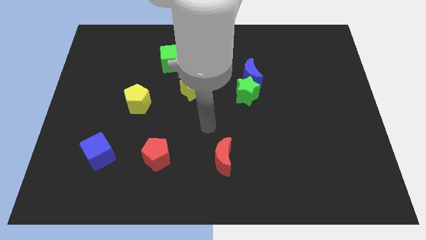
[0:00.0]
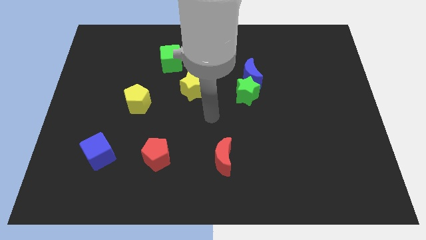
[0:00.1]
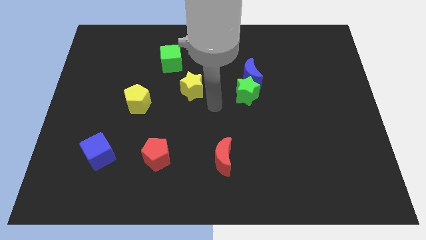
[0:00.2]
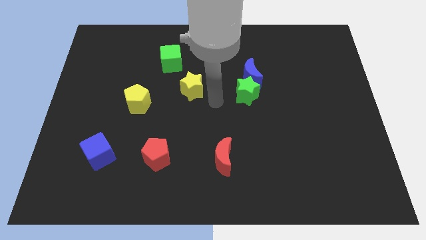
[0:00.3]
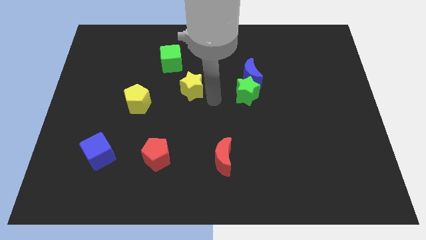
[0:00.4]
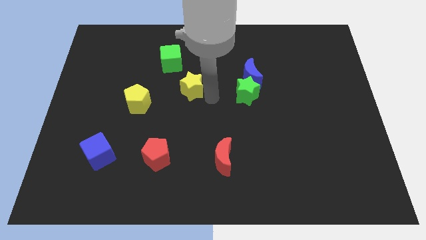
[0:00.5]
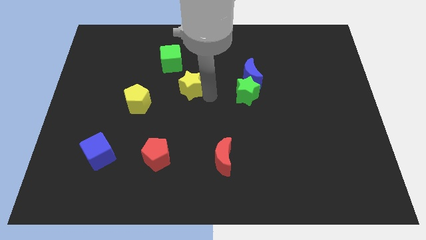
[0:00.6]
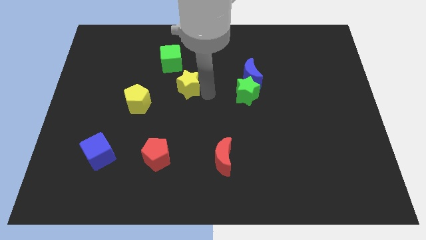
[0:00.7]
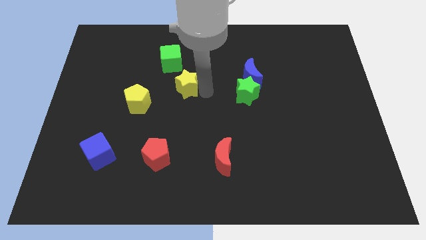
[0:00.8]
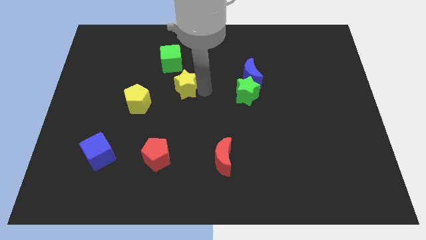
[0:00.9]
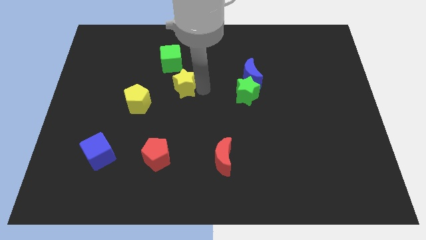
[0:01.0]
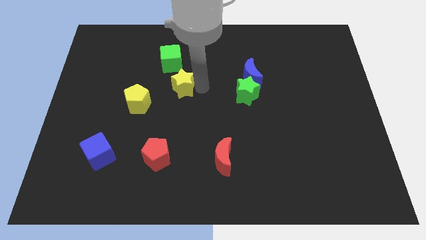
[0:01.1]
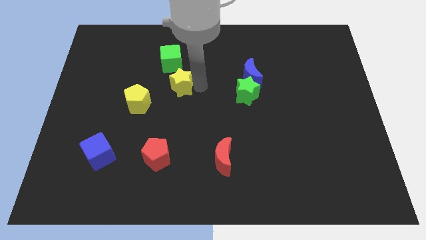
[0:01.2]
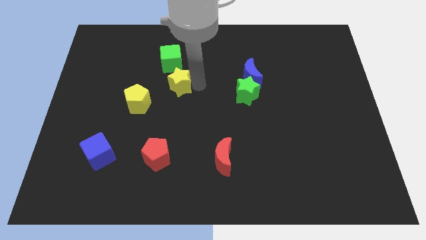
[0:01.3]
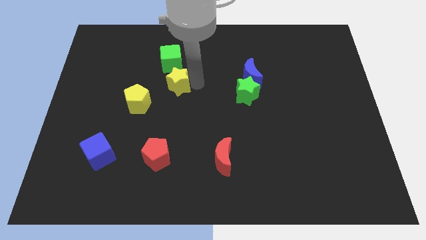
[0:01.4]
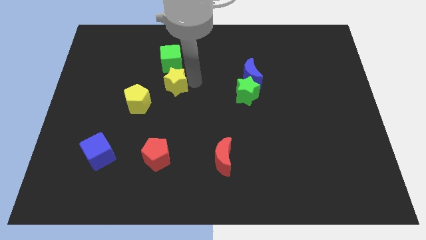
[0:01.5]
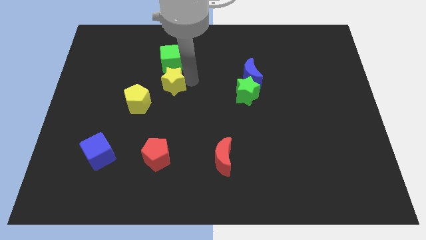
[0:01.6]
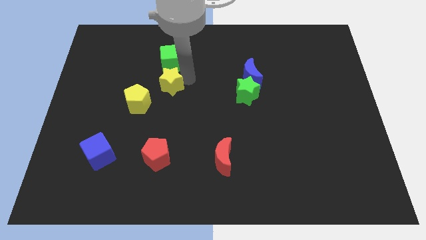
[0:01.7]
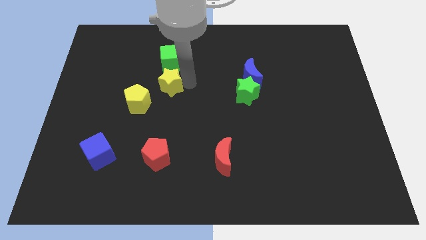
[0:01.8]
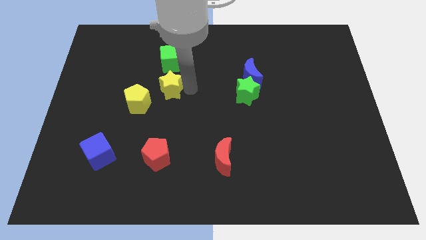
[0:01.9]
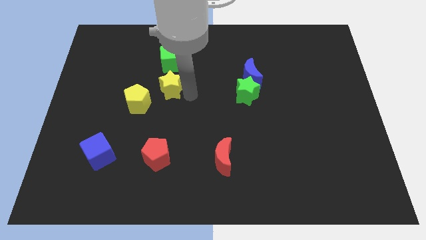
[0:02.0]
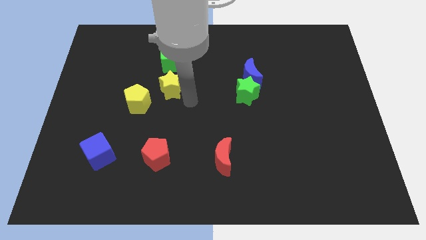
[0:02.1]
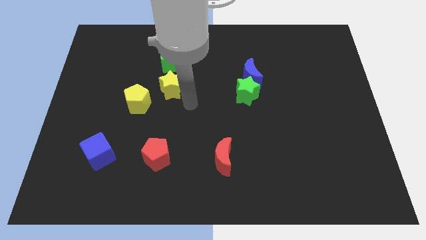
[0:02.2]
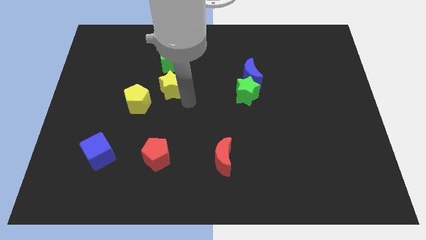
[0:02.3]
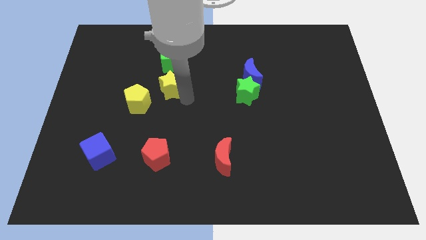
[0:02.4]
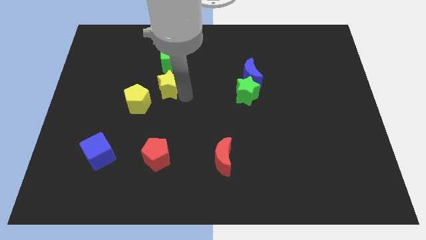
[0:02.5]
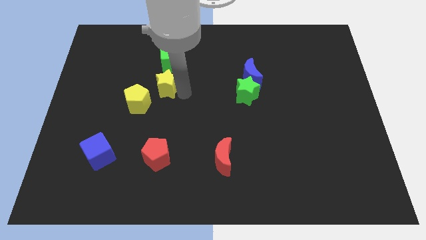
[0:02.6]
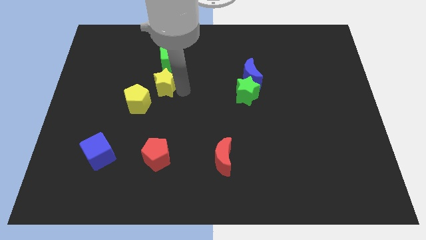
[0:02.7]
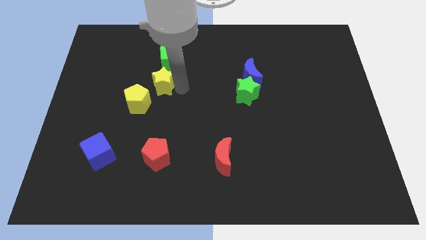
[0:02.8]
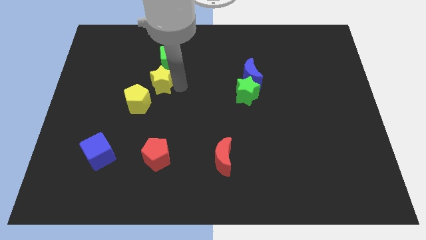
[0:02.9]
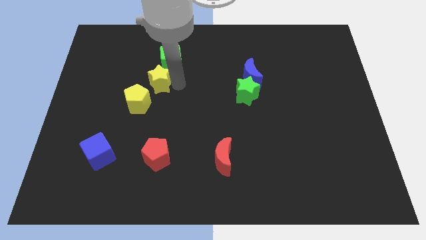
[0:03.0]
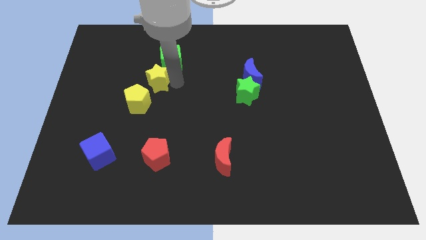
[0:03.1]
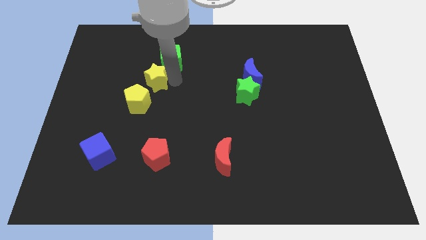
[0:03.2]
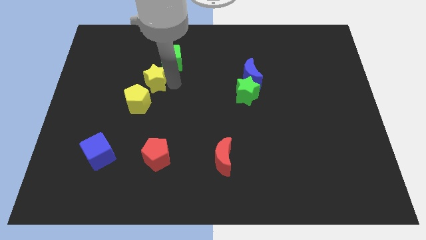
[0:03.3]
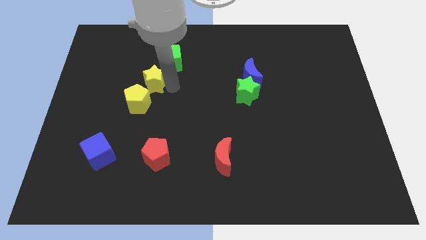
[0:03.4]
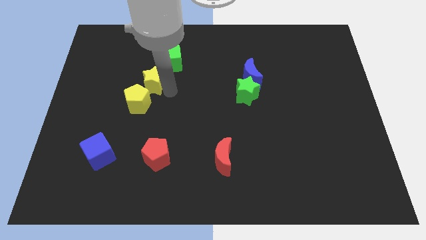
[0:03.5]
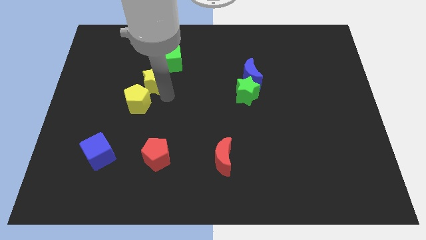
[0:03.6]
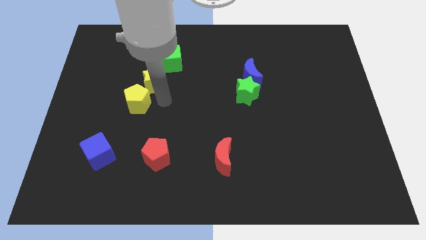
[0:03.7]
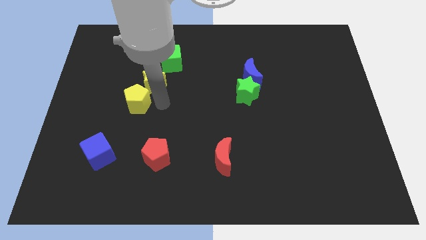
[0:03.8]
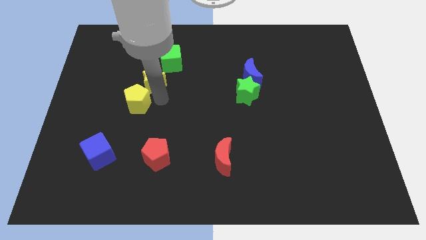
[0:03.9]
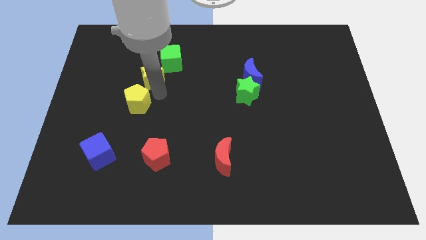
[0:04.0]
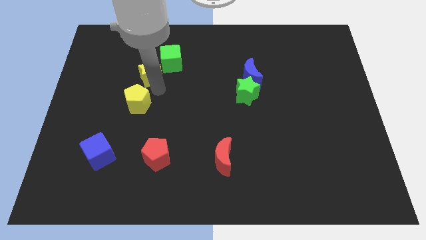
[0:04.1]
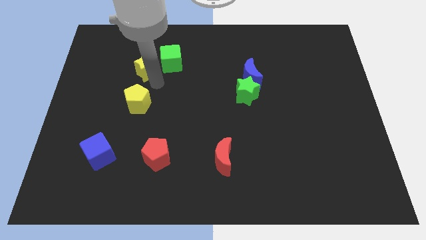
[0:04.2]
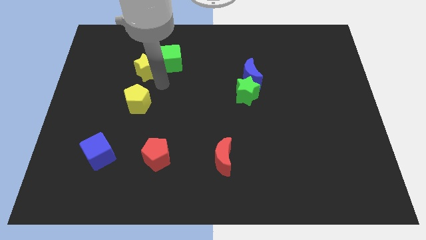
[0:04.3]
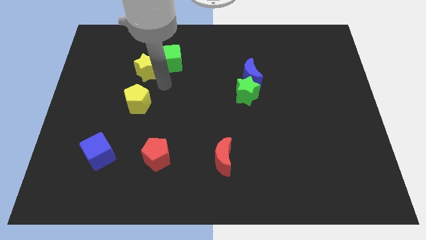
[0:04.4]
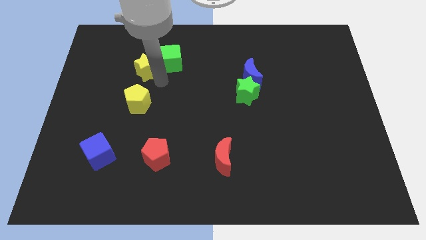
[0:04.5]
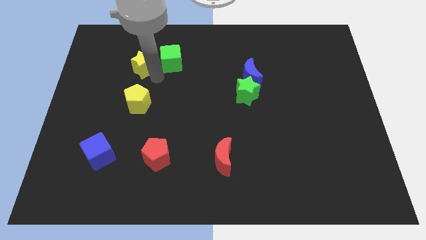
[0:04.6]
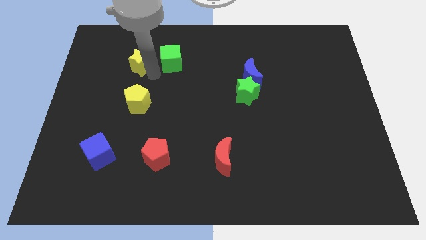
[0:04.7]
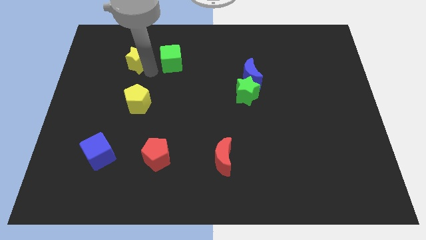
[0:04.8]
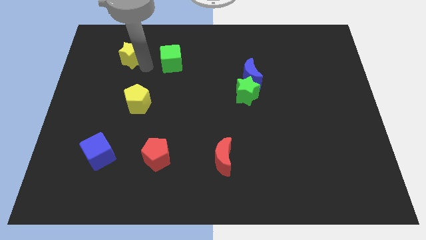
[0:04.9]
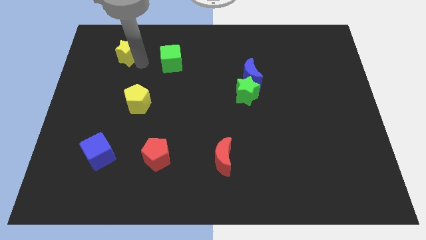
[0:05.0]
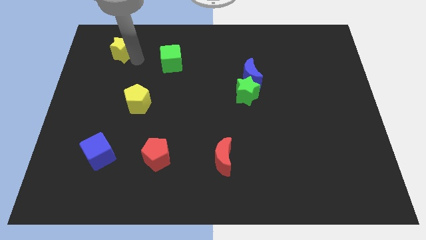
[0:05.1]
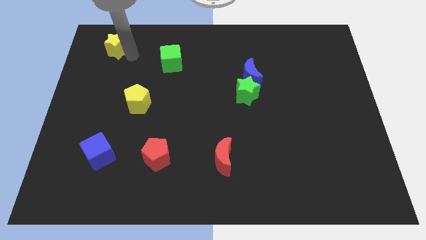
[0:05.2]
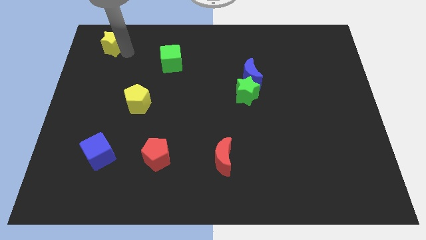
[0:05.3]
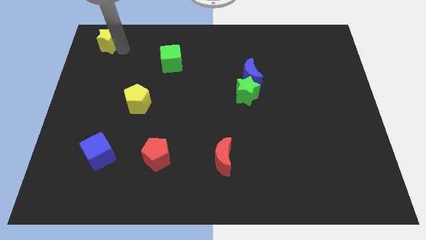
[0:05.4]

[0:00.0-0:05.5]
put the yellow star to the upper left corner

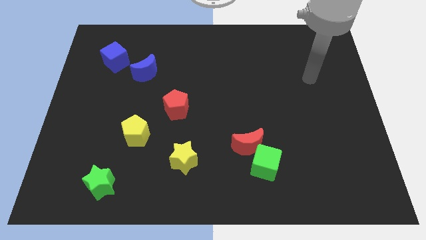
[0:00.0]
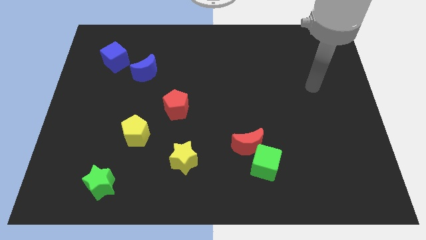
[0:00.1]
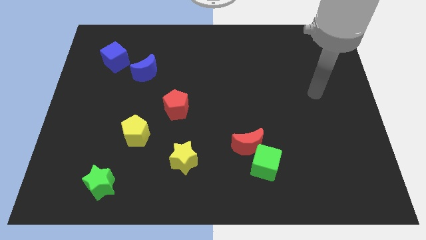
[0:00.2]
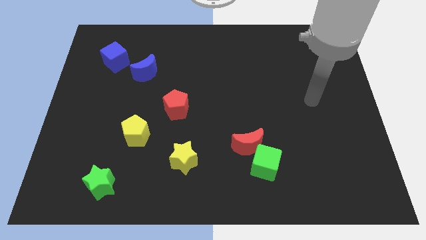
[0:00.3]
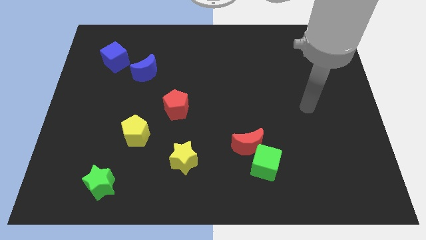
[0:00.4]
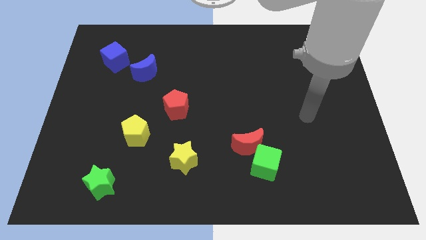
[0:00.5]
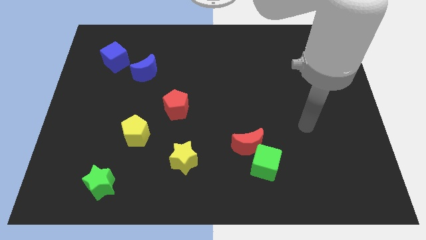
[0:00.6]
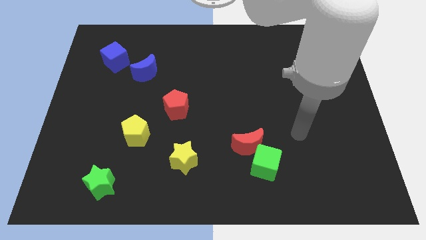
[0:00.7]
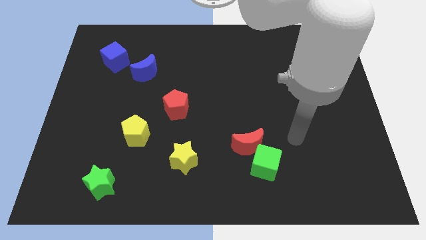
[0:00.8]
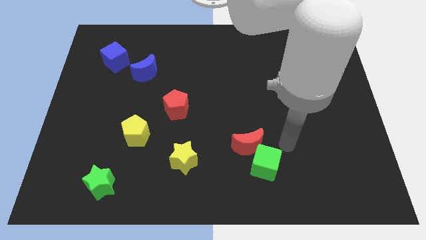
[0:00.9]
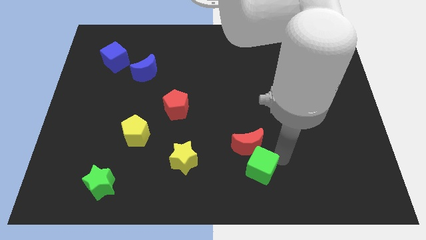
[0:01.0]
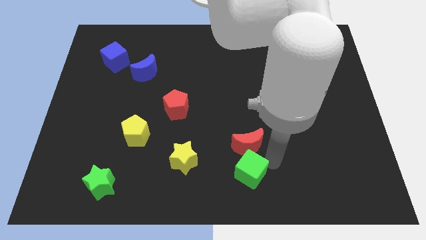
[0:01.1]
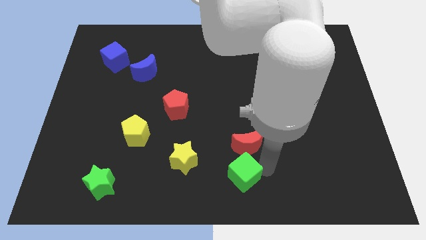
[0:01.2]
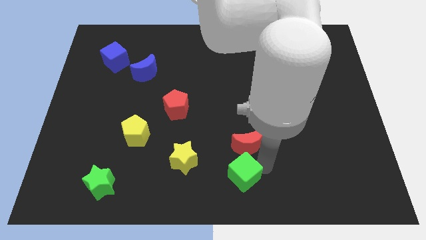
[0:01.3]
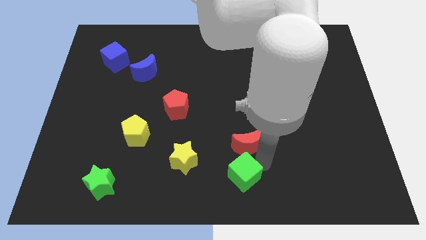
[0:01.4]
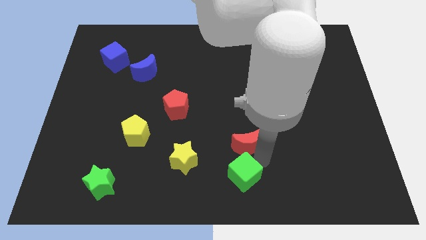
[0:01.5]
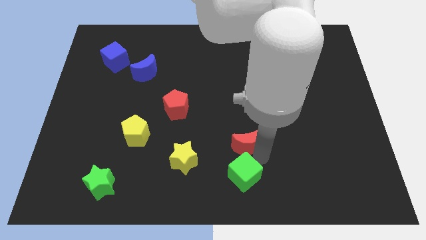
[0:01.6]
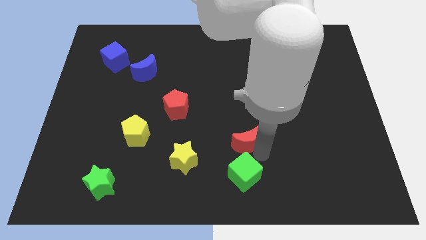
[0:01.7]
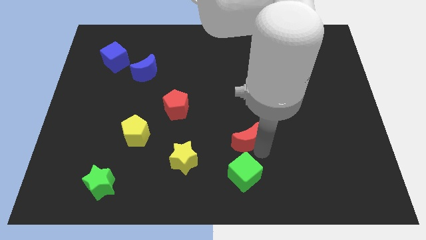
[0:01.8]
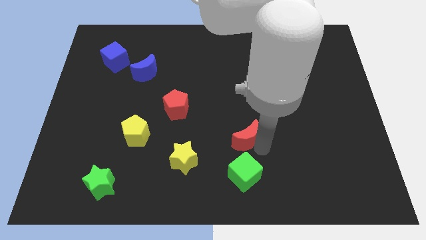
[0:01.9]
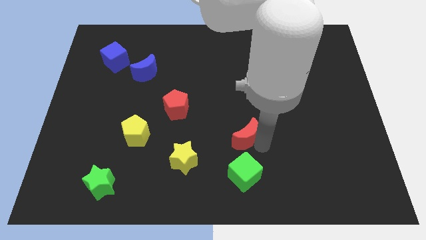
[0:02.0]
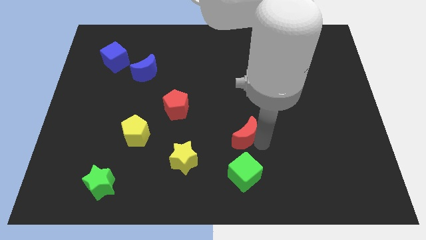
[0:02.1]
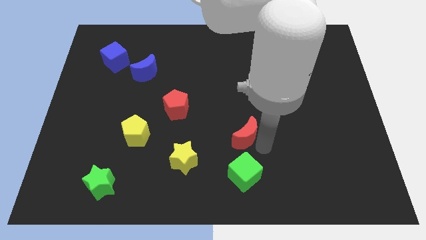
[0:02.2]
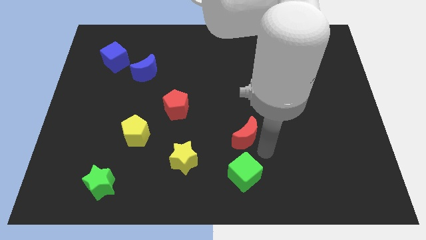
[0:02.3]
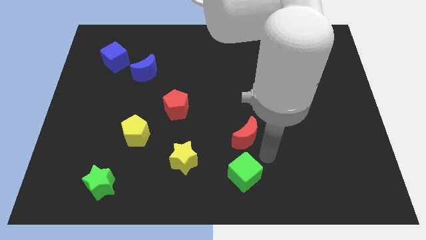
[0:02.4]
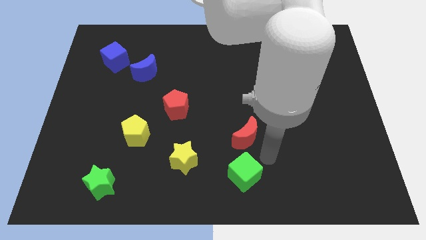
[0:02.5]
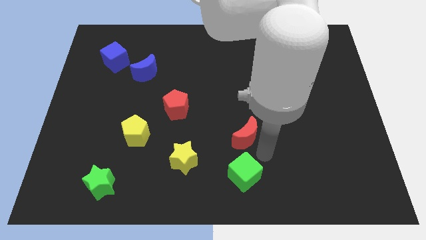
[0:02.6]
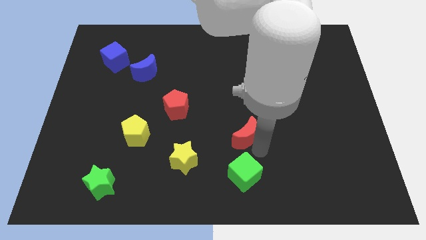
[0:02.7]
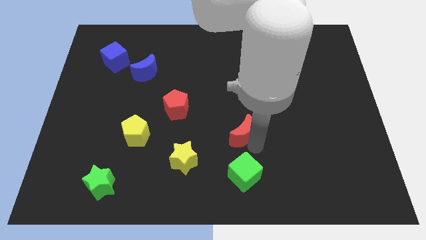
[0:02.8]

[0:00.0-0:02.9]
put the red moon to the middle of the board
